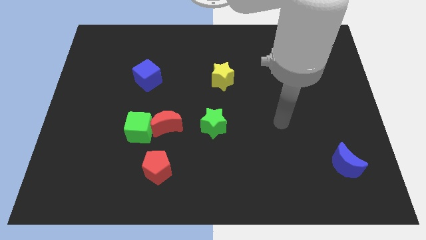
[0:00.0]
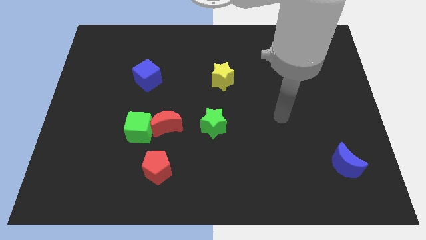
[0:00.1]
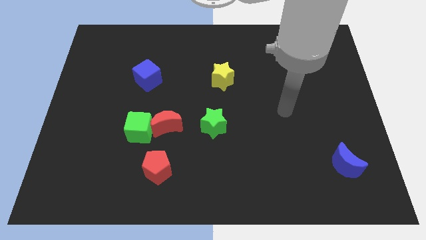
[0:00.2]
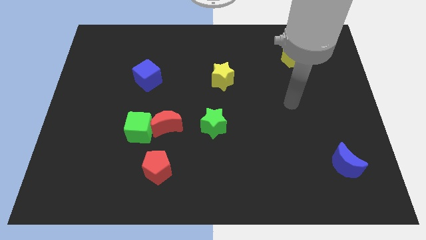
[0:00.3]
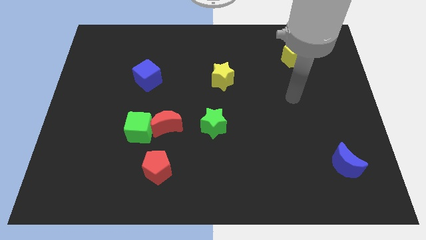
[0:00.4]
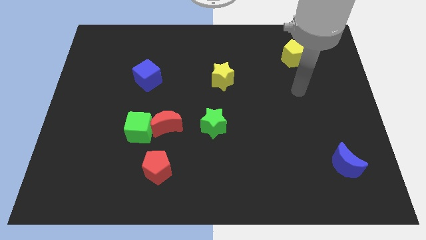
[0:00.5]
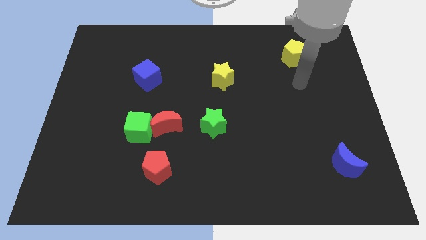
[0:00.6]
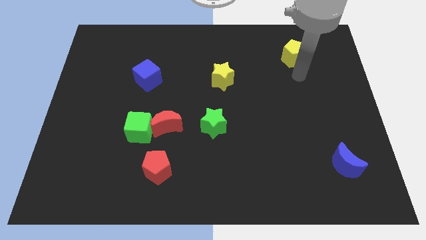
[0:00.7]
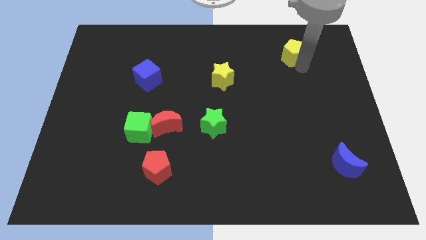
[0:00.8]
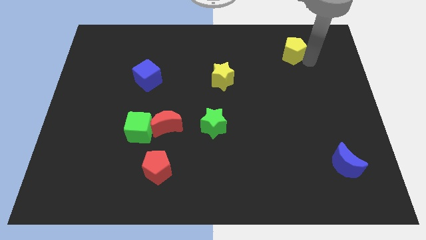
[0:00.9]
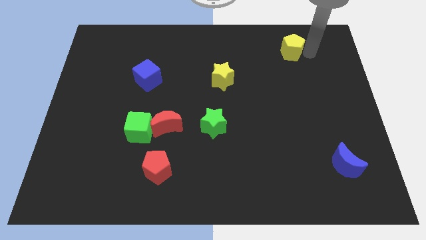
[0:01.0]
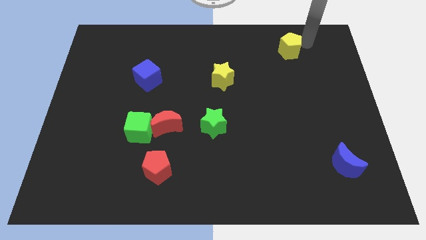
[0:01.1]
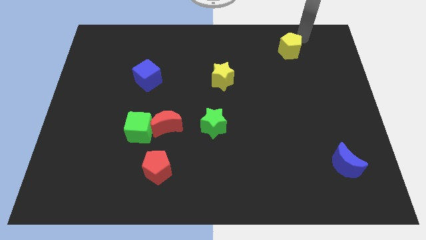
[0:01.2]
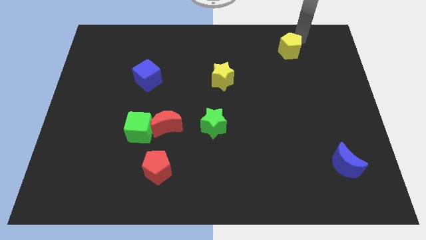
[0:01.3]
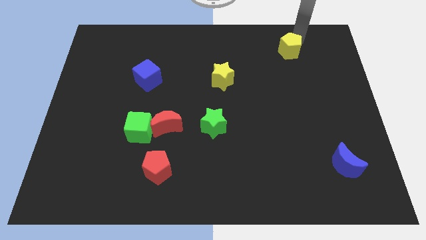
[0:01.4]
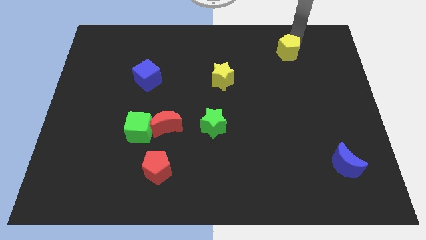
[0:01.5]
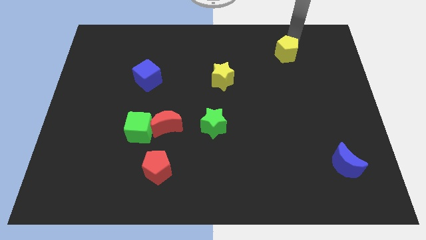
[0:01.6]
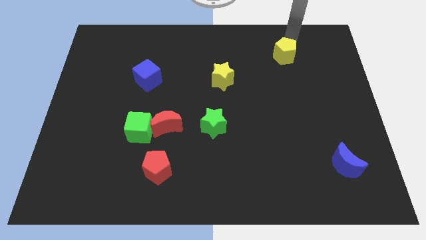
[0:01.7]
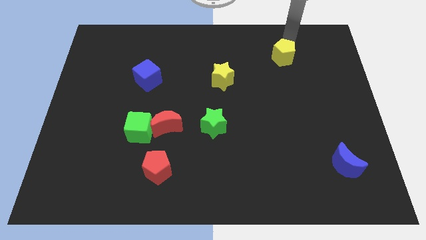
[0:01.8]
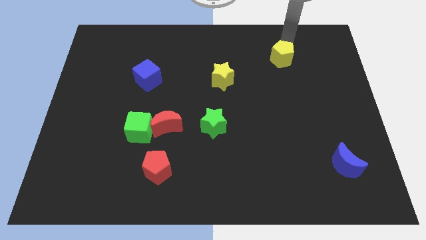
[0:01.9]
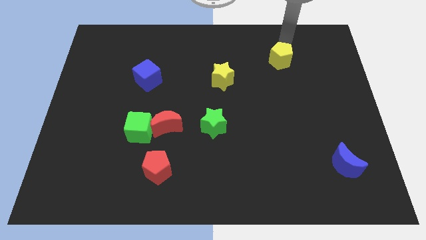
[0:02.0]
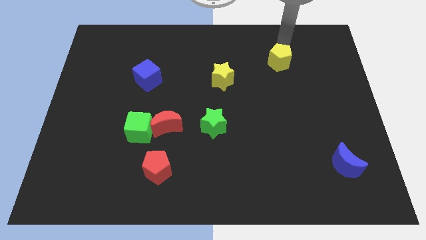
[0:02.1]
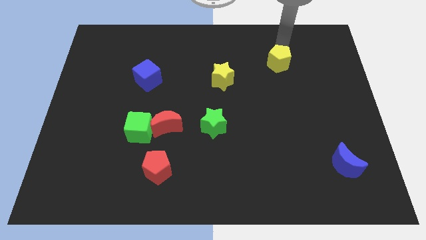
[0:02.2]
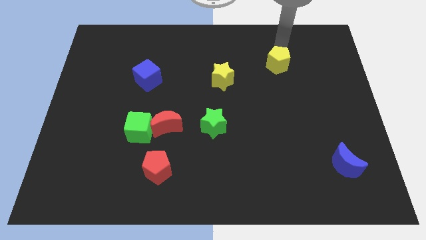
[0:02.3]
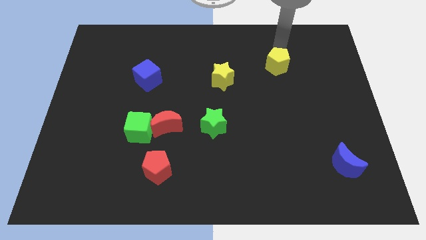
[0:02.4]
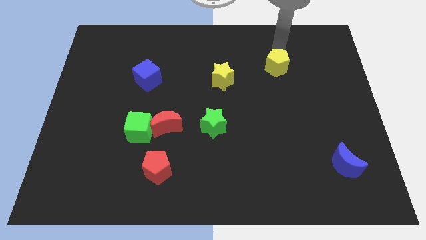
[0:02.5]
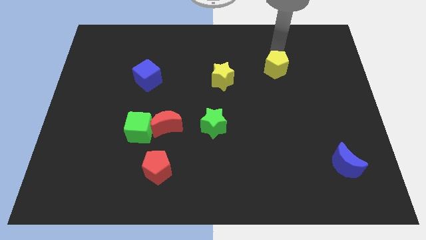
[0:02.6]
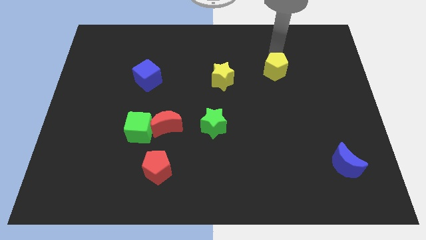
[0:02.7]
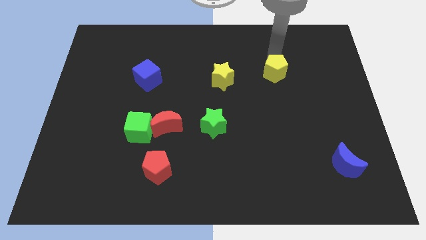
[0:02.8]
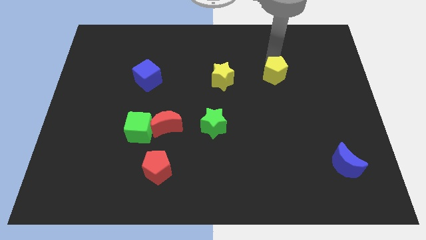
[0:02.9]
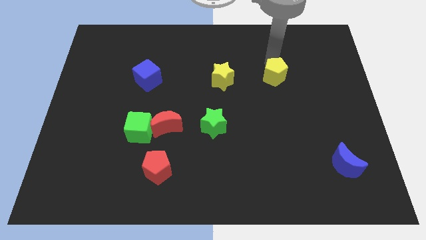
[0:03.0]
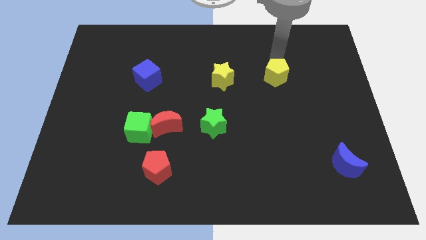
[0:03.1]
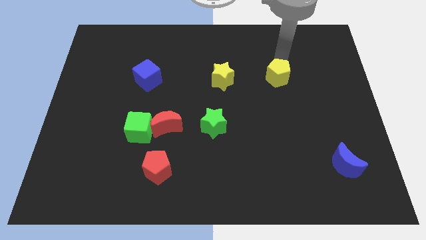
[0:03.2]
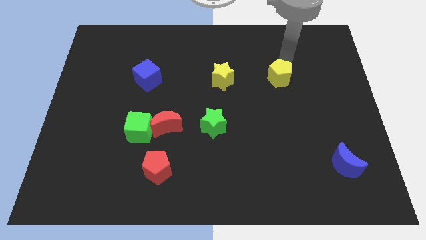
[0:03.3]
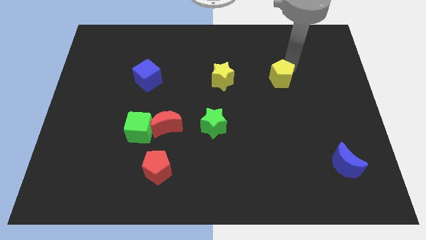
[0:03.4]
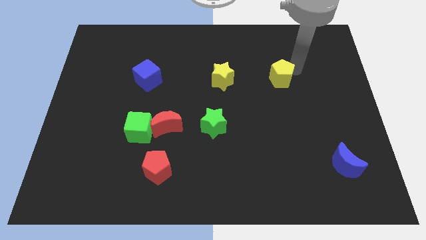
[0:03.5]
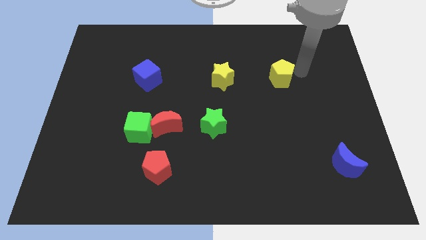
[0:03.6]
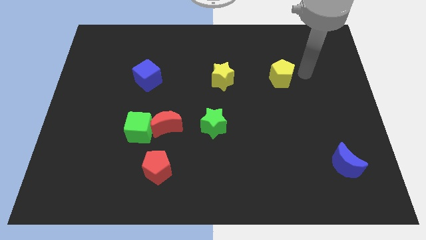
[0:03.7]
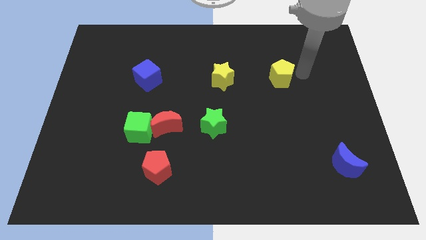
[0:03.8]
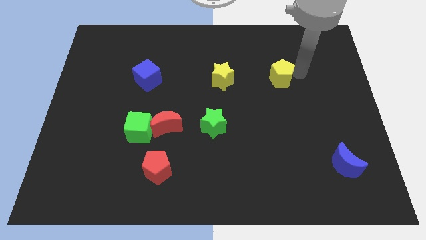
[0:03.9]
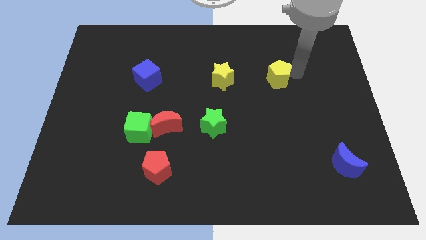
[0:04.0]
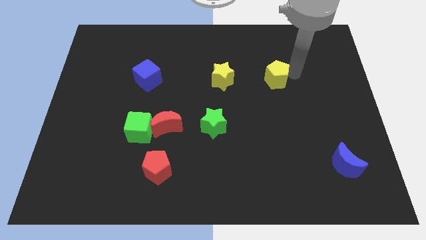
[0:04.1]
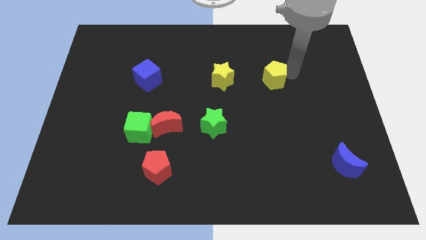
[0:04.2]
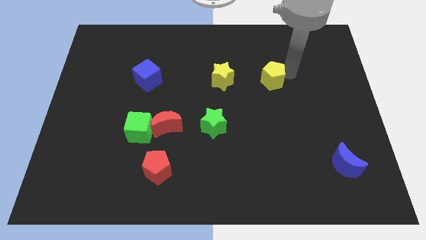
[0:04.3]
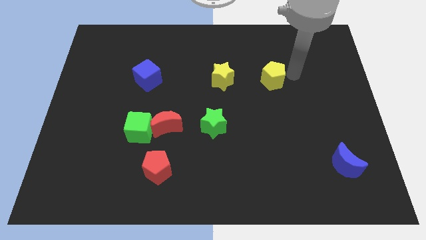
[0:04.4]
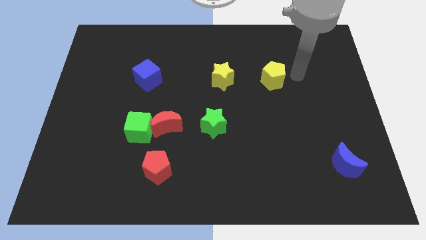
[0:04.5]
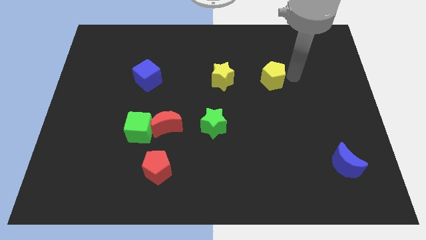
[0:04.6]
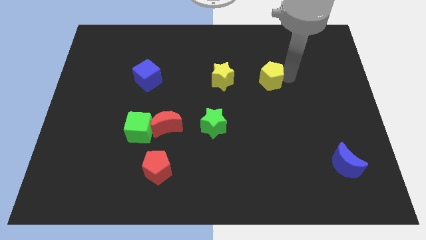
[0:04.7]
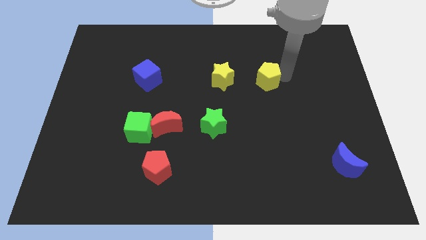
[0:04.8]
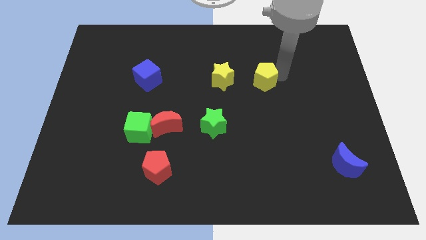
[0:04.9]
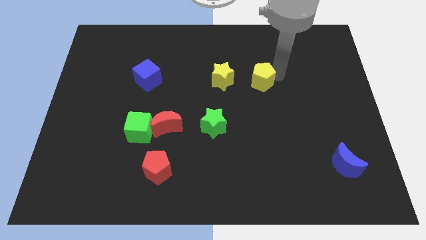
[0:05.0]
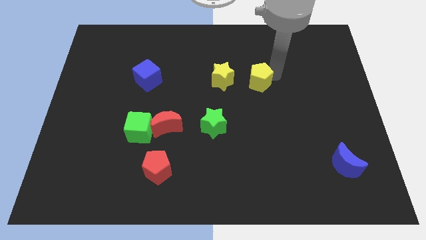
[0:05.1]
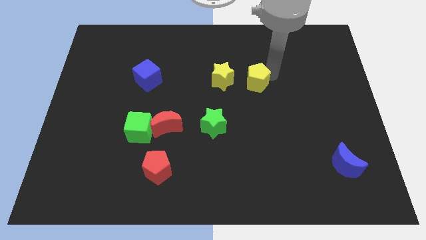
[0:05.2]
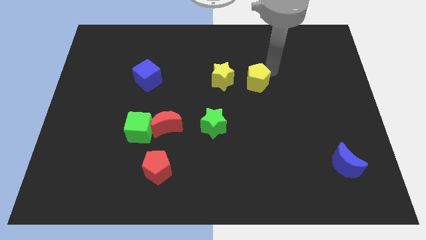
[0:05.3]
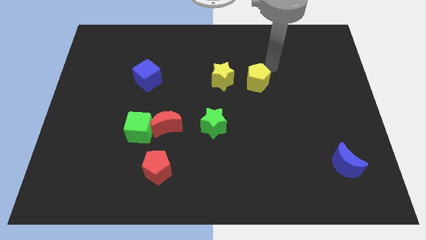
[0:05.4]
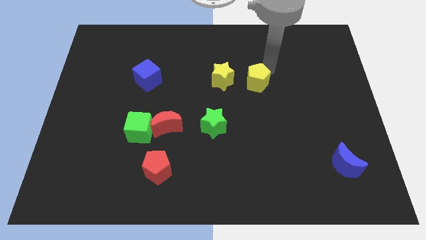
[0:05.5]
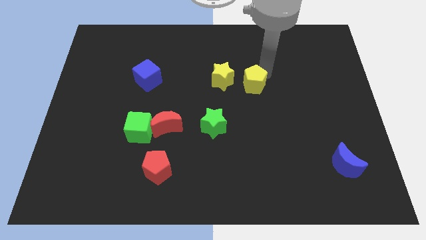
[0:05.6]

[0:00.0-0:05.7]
move the yellow pentagon to the bottom right of the yellow star

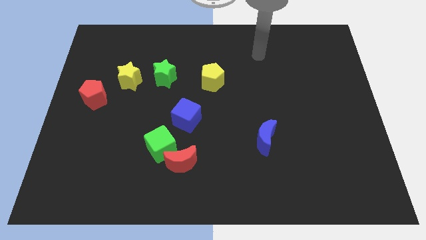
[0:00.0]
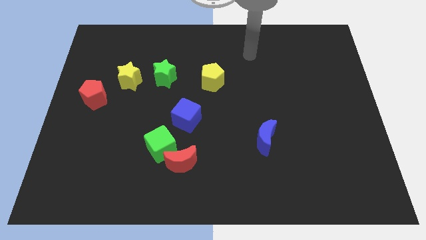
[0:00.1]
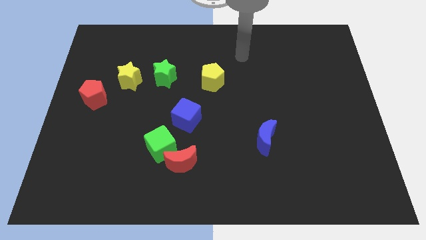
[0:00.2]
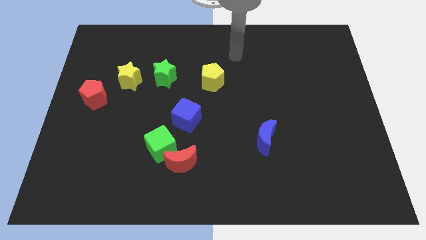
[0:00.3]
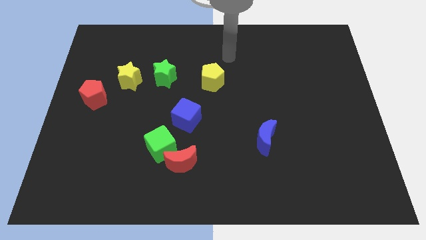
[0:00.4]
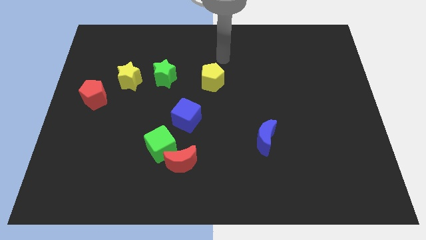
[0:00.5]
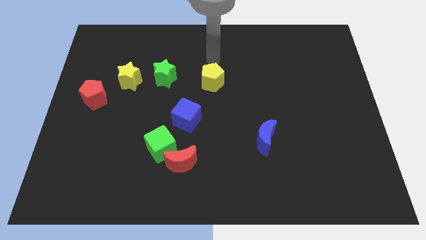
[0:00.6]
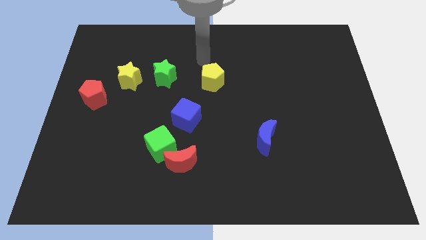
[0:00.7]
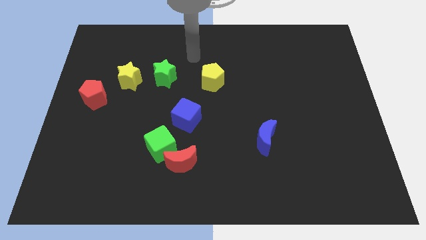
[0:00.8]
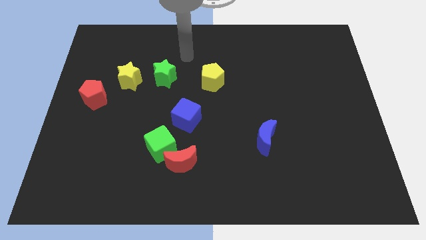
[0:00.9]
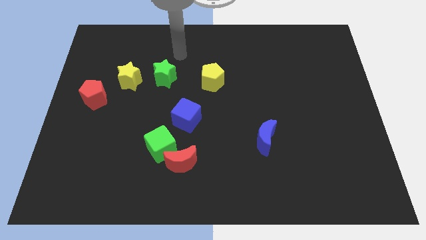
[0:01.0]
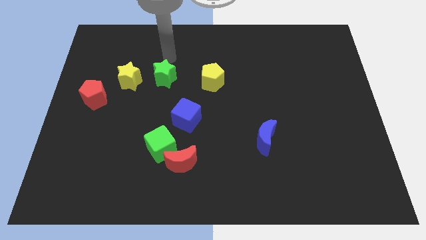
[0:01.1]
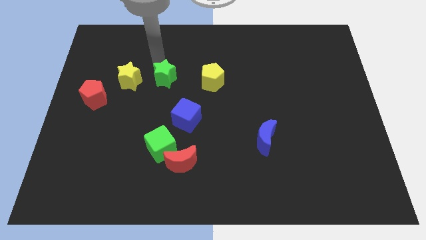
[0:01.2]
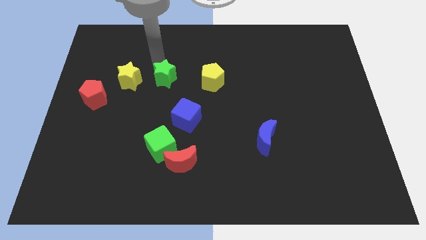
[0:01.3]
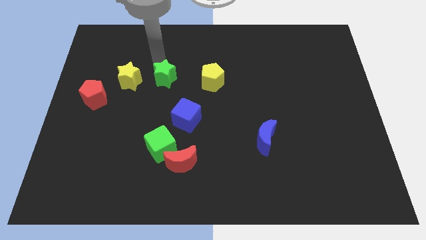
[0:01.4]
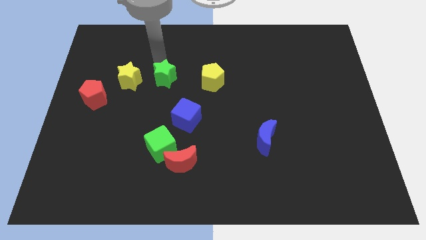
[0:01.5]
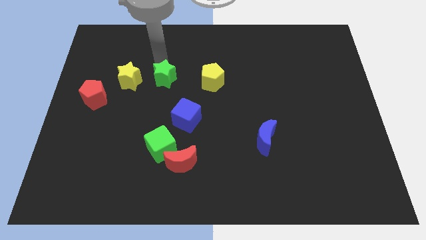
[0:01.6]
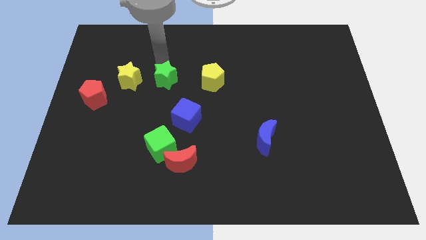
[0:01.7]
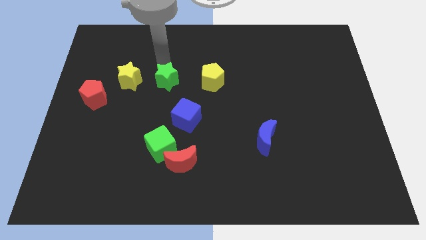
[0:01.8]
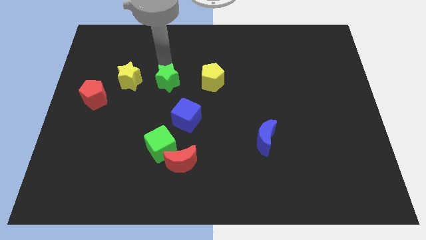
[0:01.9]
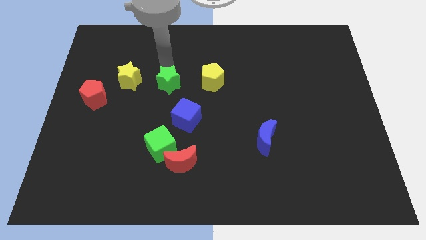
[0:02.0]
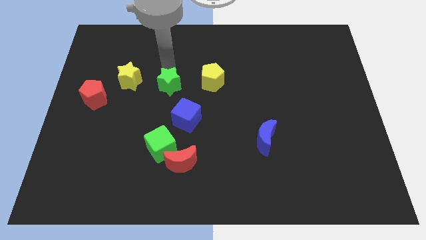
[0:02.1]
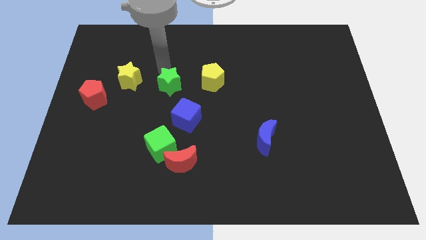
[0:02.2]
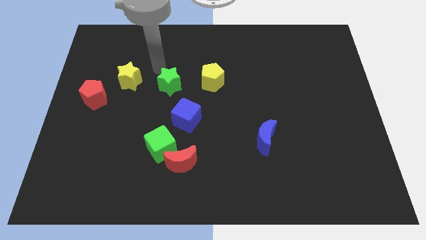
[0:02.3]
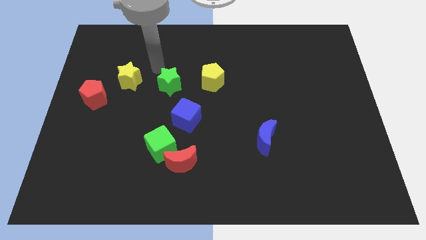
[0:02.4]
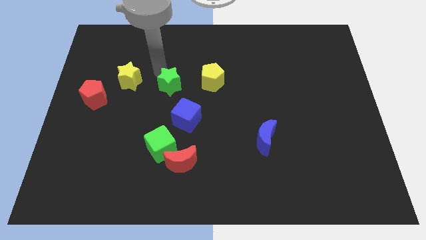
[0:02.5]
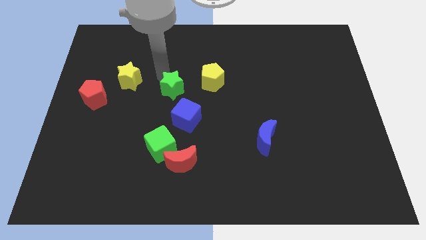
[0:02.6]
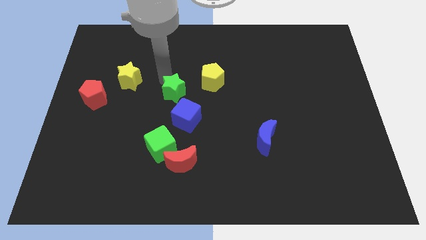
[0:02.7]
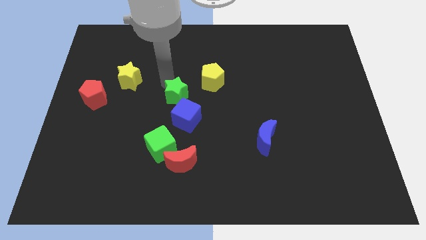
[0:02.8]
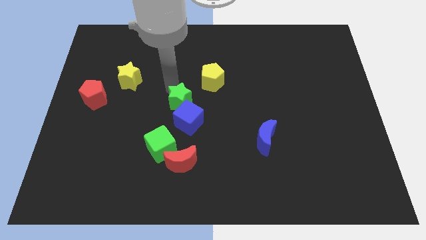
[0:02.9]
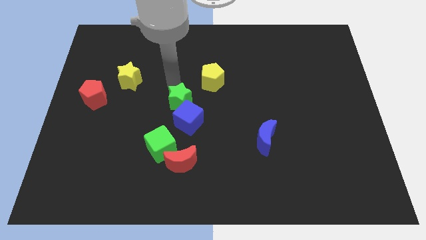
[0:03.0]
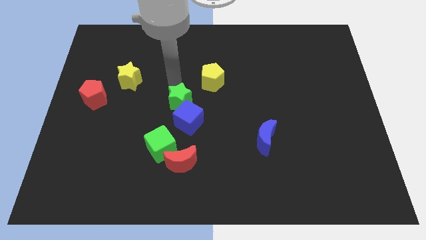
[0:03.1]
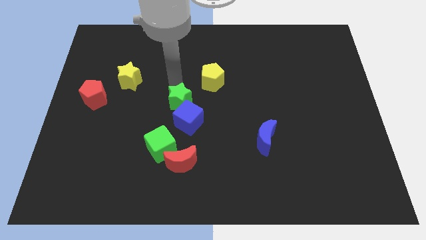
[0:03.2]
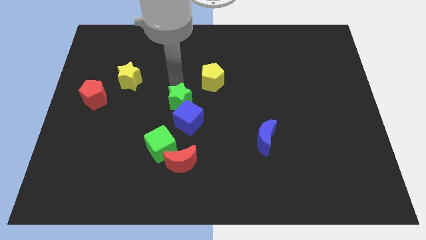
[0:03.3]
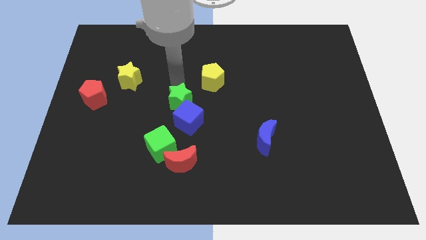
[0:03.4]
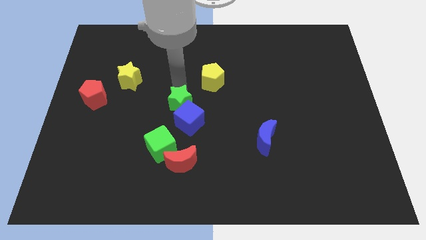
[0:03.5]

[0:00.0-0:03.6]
slide the green star to the top of the red moon
